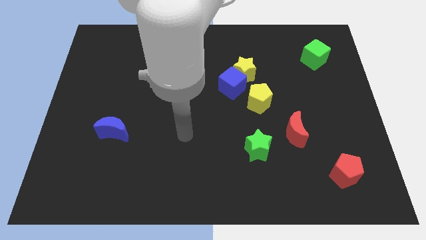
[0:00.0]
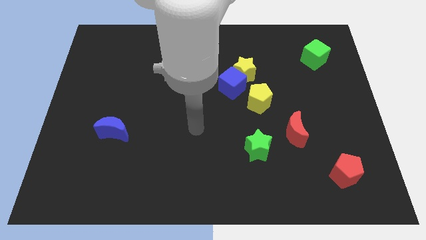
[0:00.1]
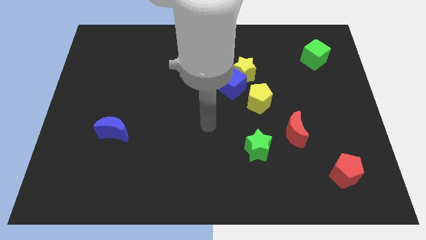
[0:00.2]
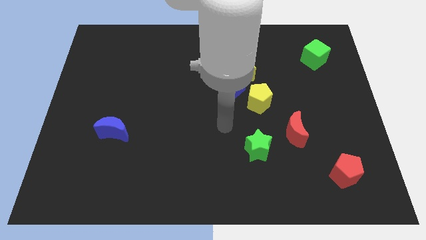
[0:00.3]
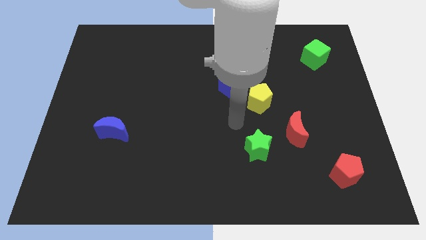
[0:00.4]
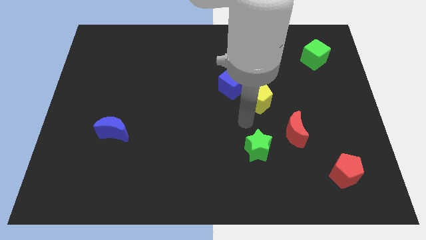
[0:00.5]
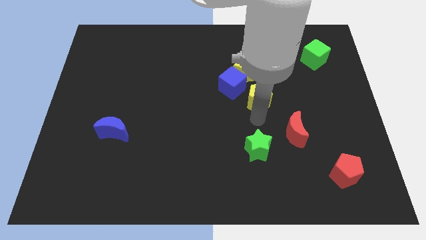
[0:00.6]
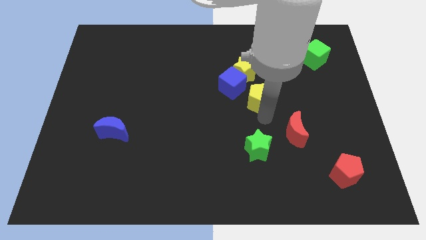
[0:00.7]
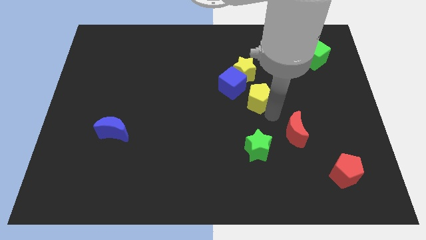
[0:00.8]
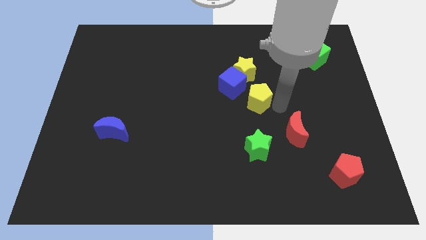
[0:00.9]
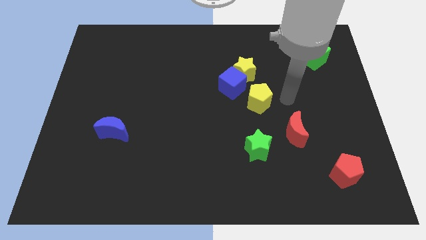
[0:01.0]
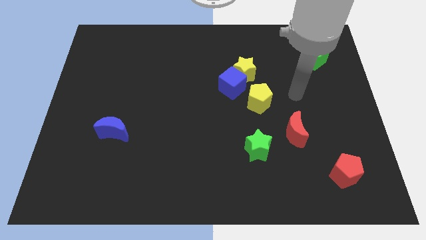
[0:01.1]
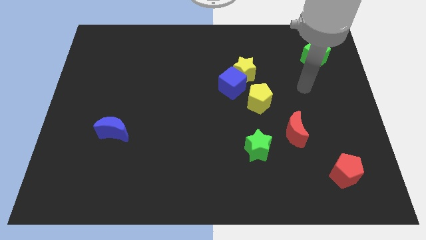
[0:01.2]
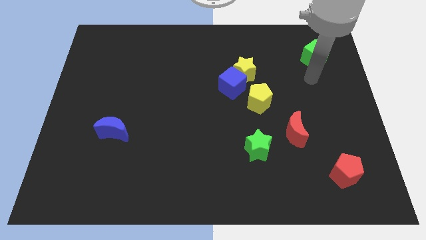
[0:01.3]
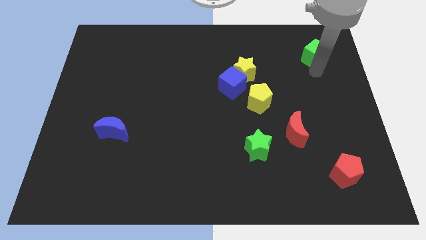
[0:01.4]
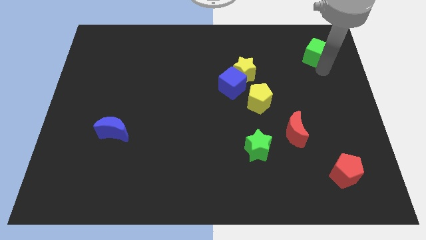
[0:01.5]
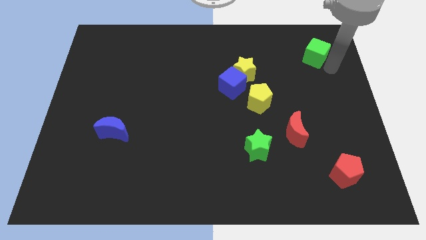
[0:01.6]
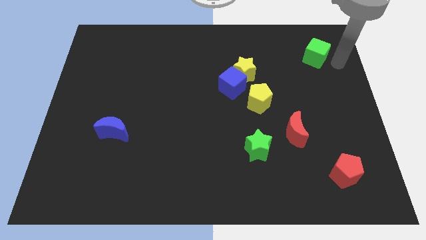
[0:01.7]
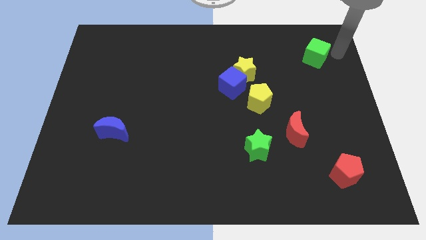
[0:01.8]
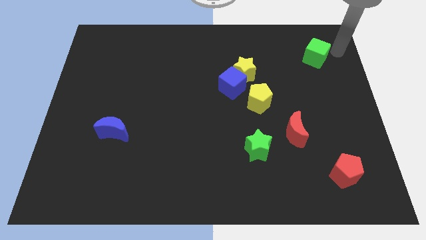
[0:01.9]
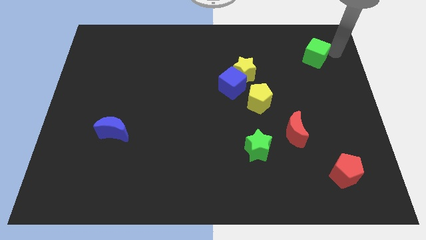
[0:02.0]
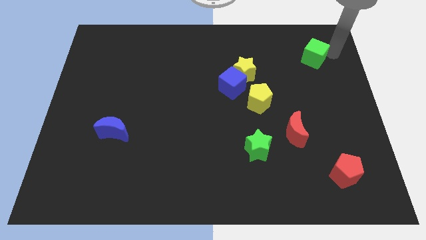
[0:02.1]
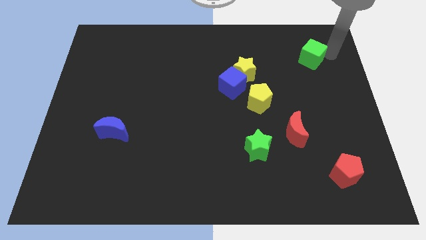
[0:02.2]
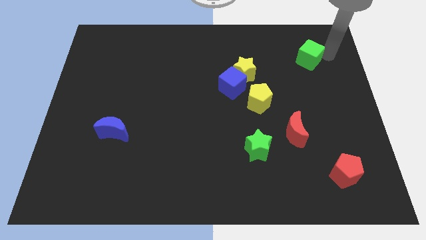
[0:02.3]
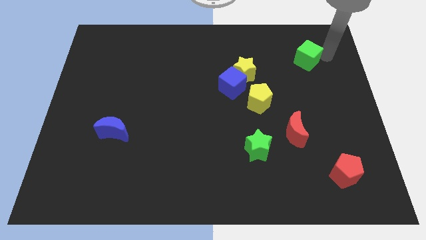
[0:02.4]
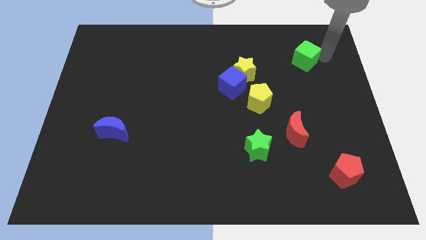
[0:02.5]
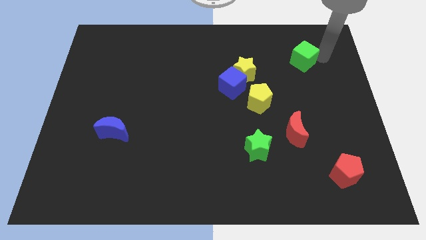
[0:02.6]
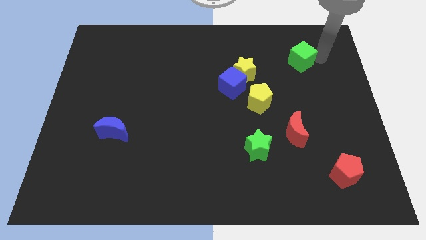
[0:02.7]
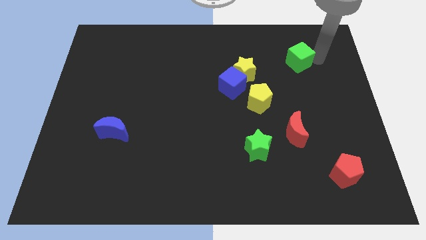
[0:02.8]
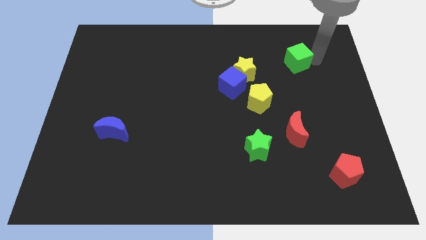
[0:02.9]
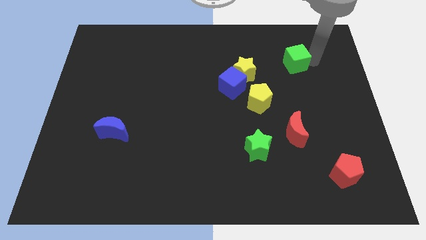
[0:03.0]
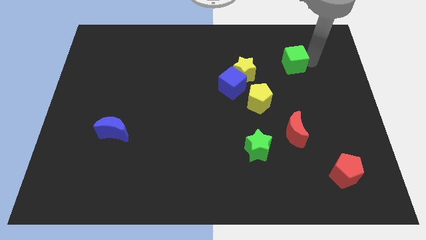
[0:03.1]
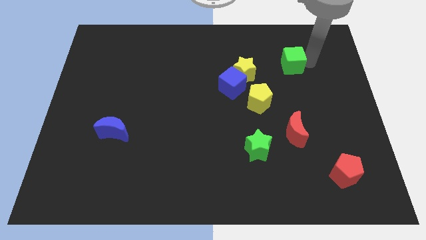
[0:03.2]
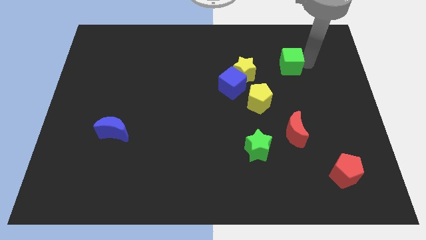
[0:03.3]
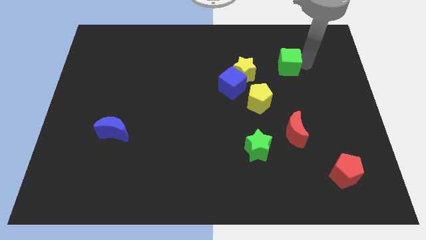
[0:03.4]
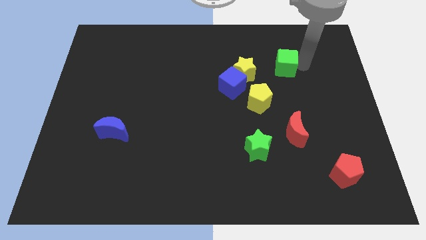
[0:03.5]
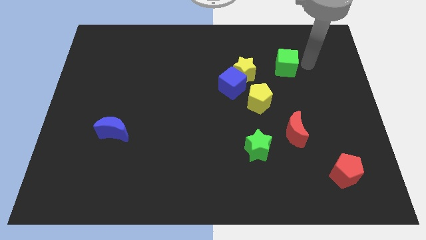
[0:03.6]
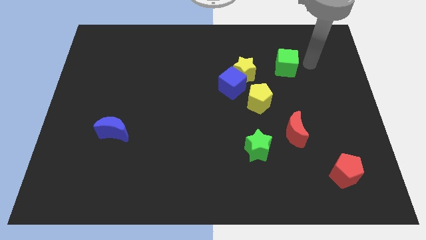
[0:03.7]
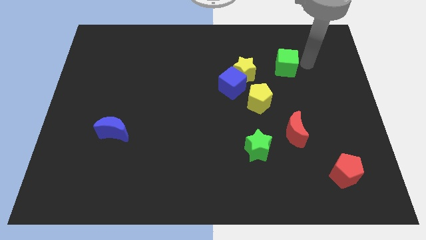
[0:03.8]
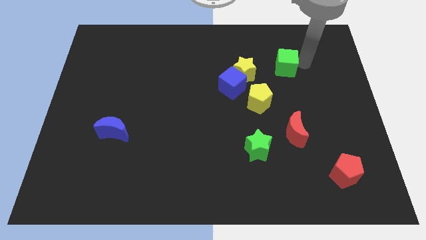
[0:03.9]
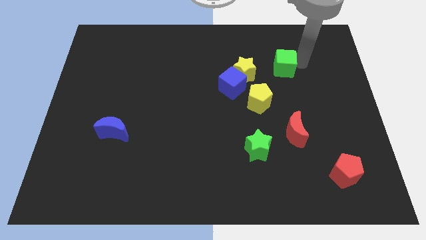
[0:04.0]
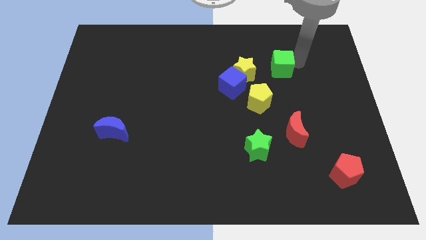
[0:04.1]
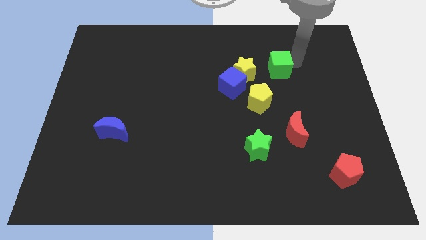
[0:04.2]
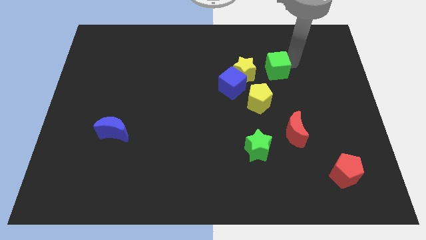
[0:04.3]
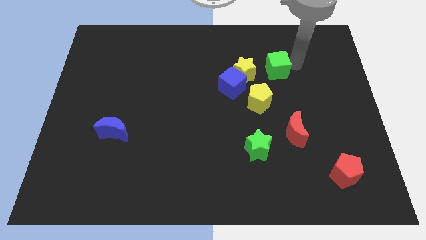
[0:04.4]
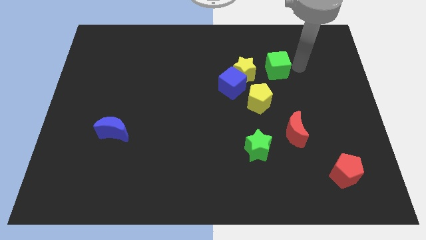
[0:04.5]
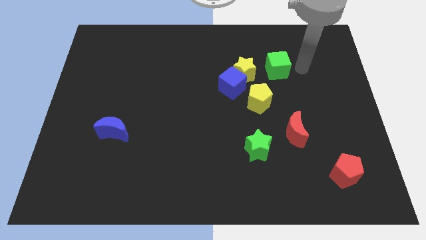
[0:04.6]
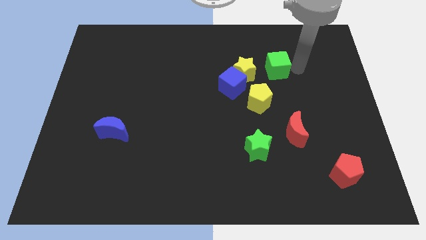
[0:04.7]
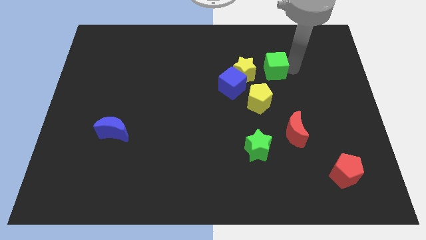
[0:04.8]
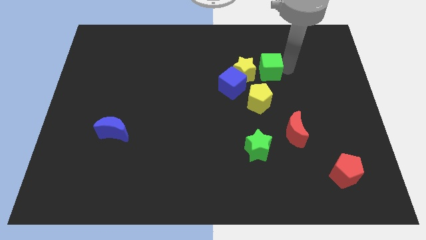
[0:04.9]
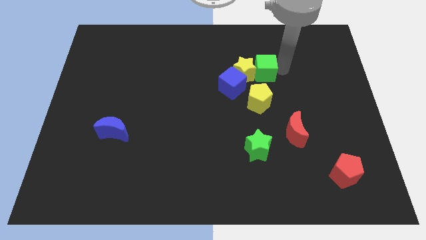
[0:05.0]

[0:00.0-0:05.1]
slide the green cube next to the yellow star

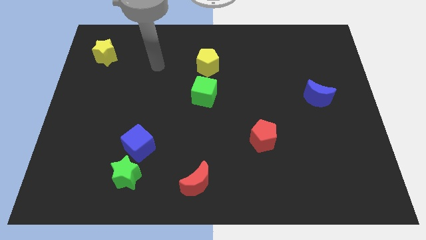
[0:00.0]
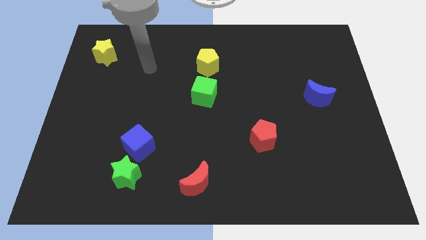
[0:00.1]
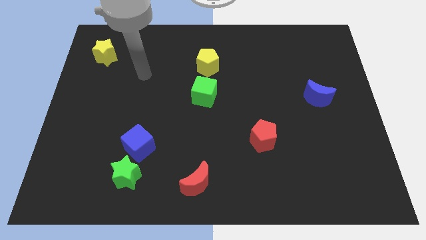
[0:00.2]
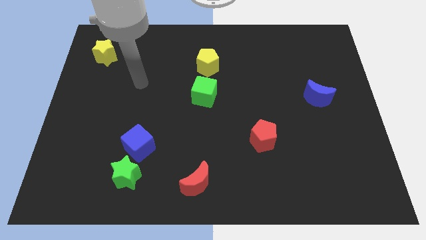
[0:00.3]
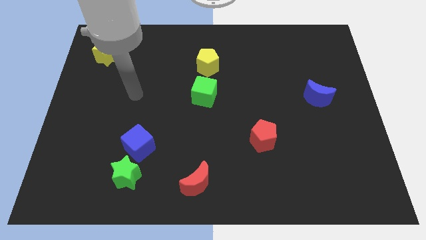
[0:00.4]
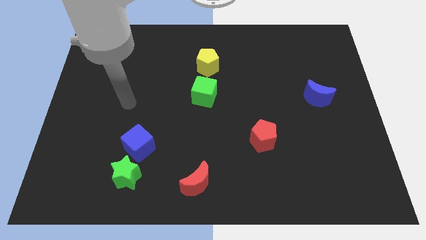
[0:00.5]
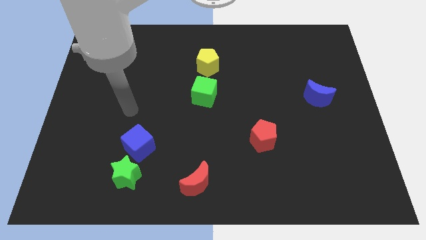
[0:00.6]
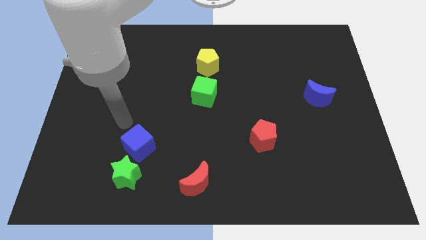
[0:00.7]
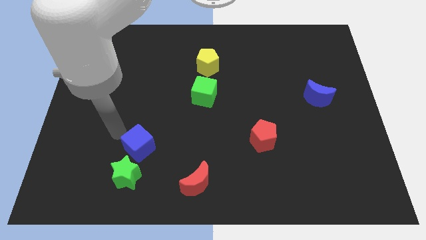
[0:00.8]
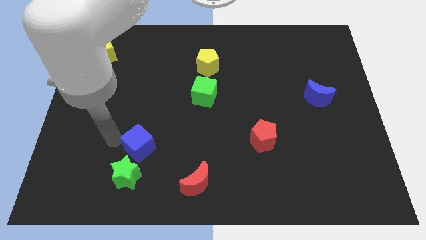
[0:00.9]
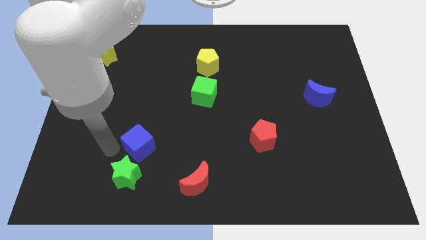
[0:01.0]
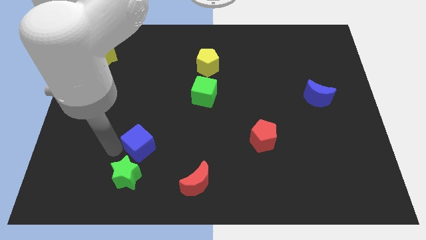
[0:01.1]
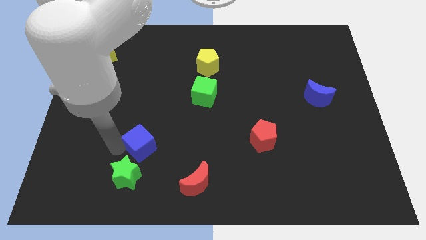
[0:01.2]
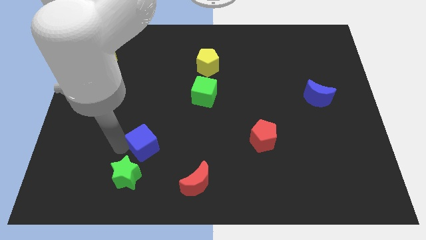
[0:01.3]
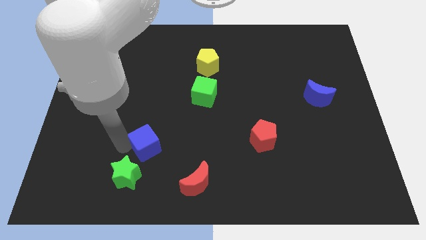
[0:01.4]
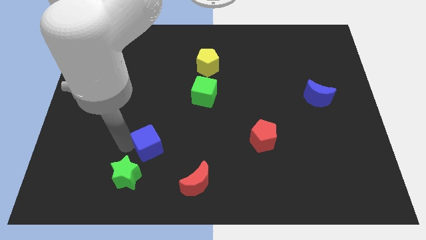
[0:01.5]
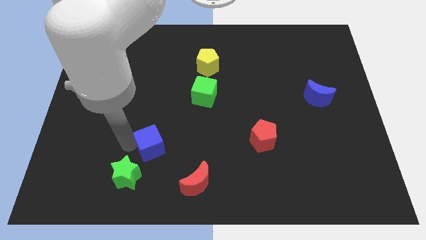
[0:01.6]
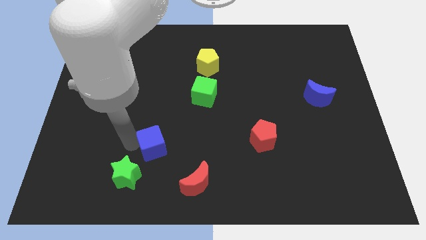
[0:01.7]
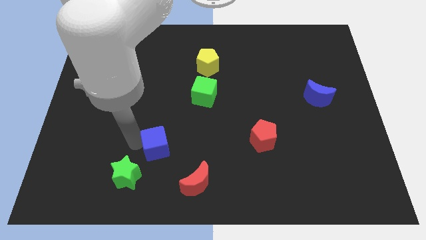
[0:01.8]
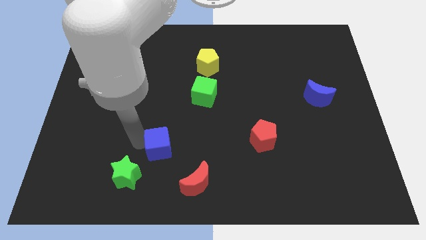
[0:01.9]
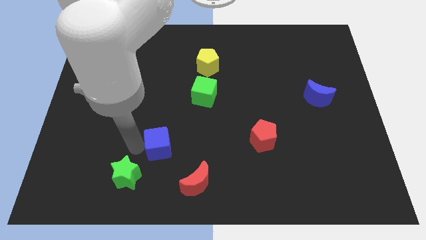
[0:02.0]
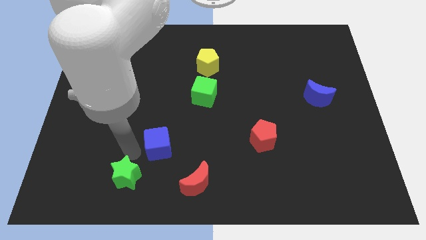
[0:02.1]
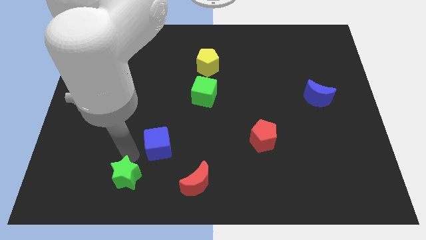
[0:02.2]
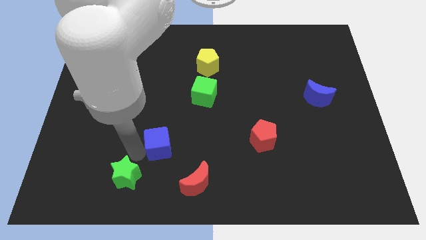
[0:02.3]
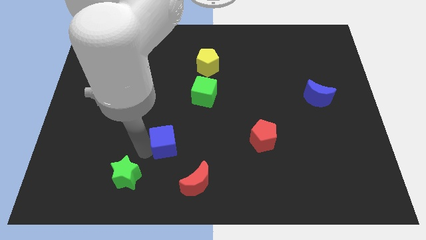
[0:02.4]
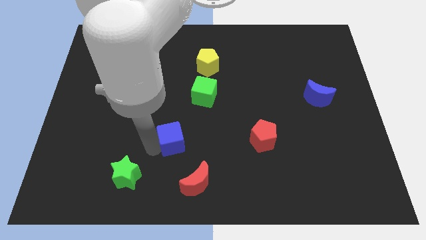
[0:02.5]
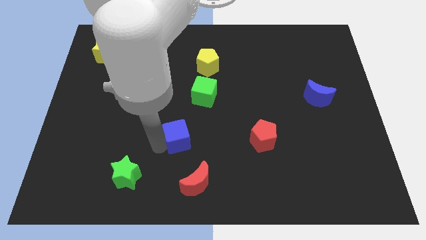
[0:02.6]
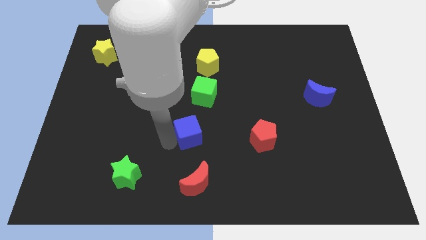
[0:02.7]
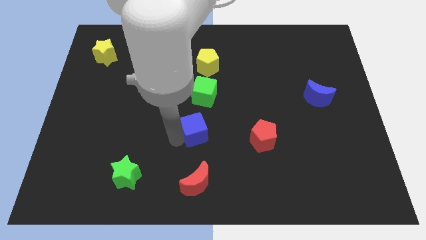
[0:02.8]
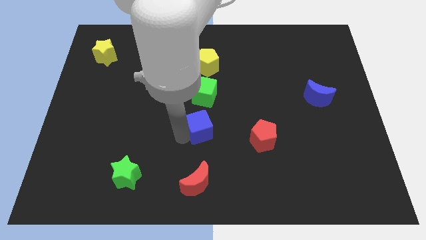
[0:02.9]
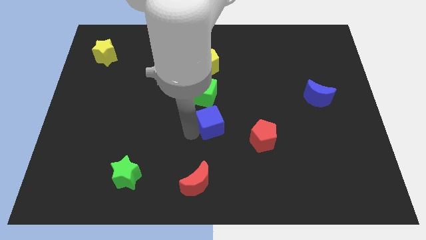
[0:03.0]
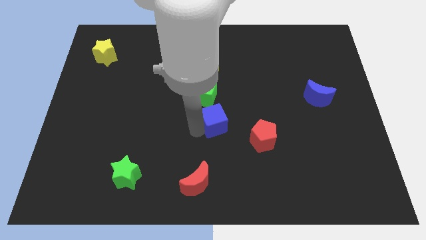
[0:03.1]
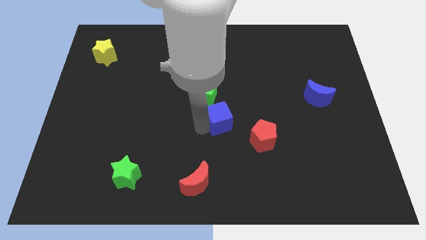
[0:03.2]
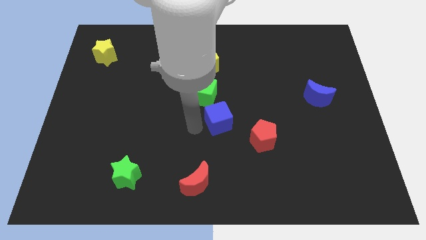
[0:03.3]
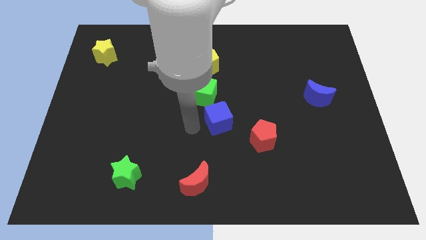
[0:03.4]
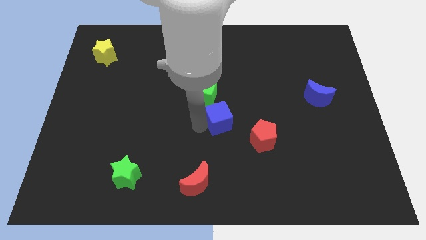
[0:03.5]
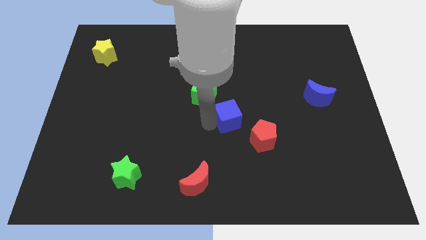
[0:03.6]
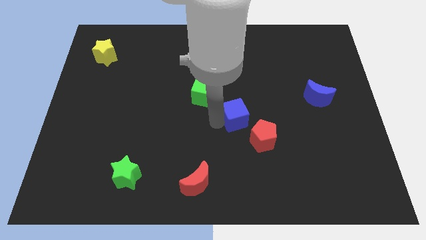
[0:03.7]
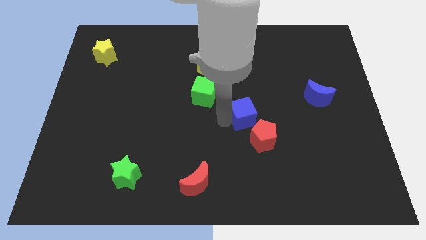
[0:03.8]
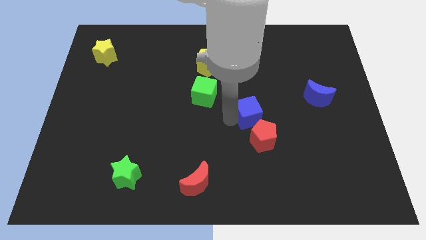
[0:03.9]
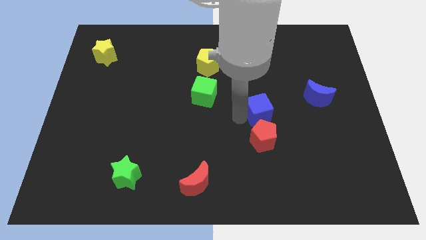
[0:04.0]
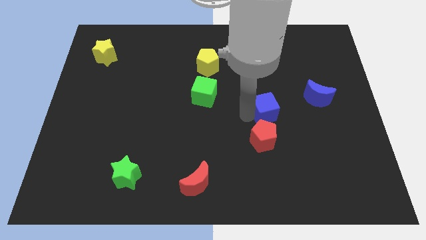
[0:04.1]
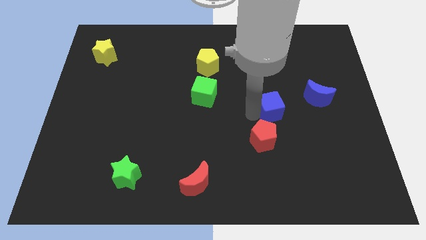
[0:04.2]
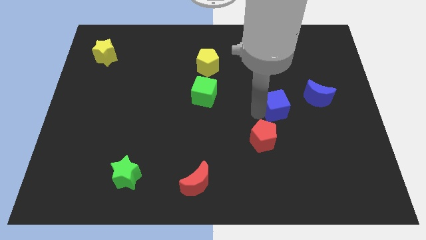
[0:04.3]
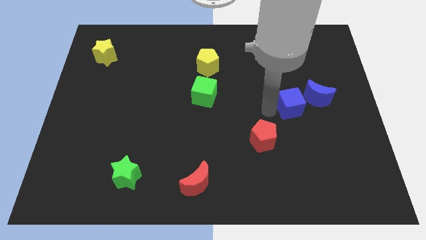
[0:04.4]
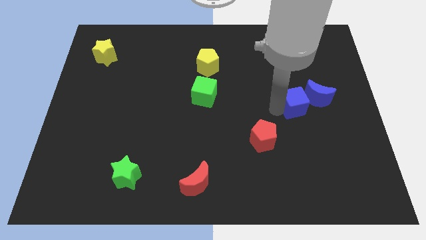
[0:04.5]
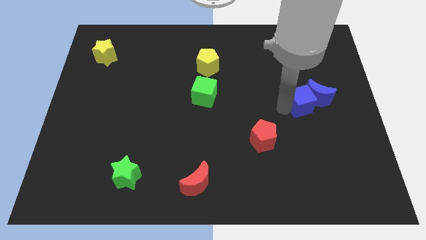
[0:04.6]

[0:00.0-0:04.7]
move the blue cube next to the blue moon
